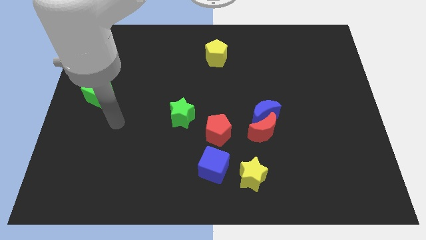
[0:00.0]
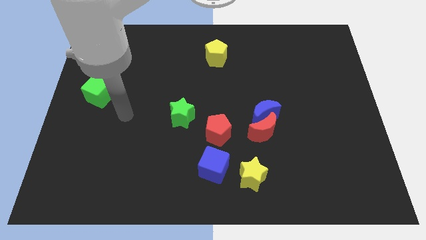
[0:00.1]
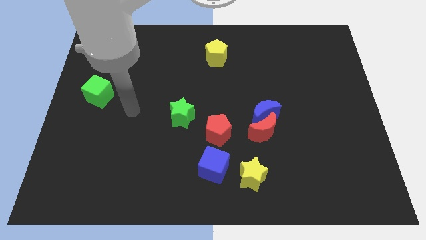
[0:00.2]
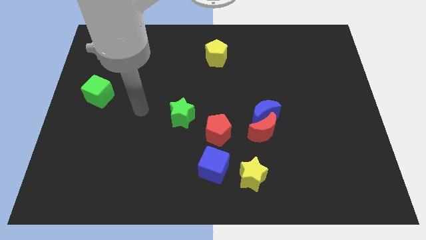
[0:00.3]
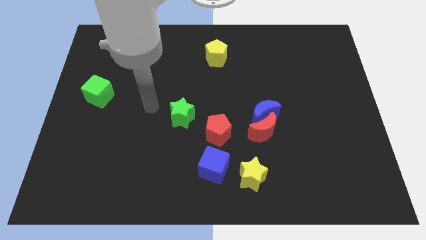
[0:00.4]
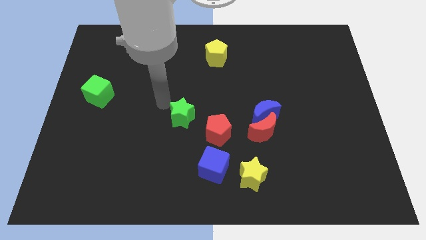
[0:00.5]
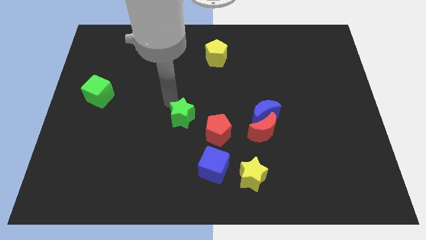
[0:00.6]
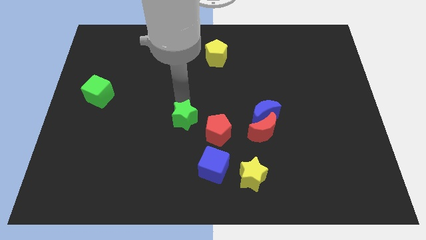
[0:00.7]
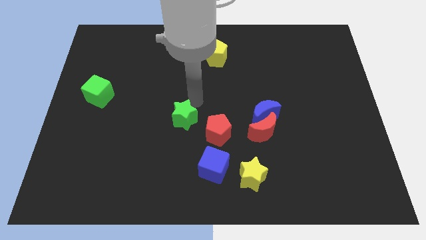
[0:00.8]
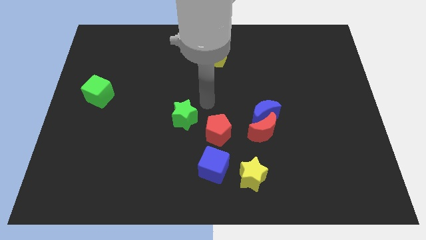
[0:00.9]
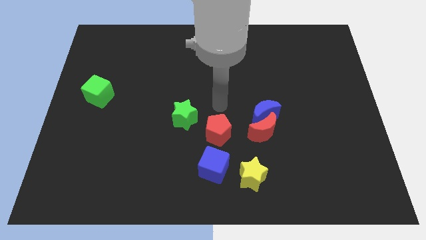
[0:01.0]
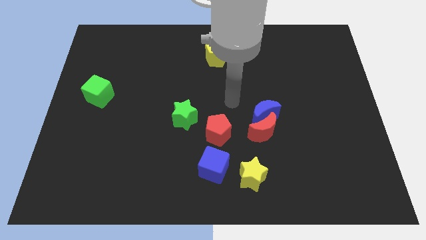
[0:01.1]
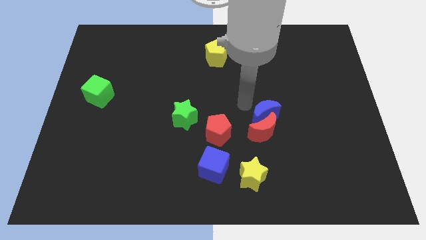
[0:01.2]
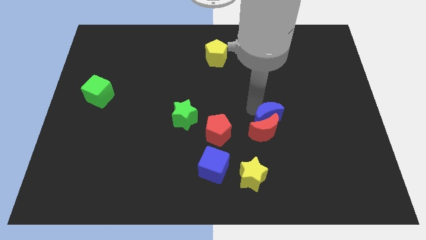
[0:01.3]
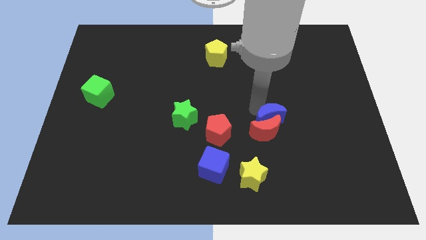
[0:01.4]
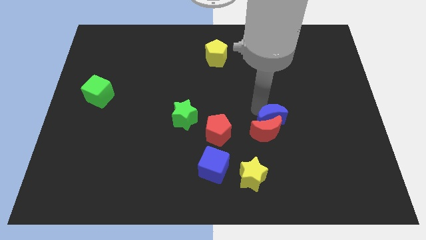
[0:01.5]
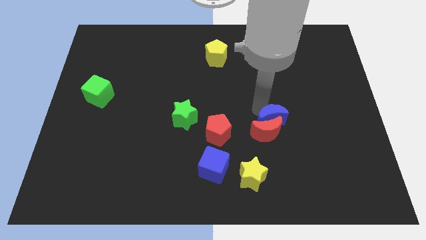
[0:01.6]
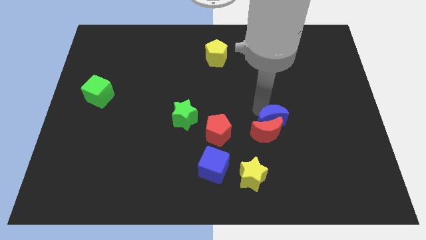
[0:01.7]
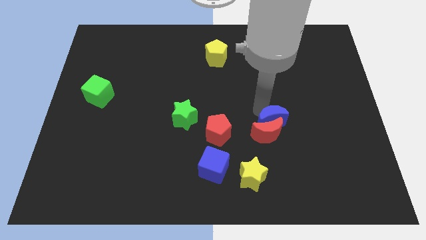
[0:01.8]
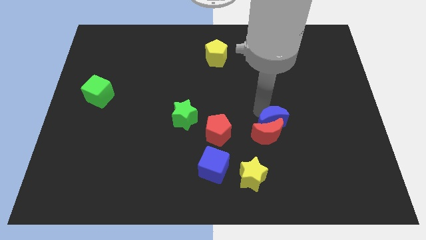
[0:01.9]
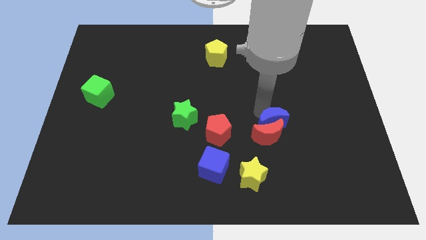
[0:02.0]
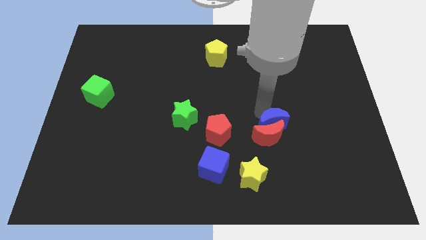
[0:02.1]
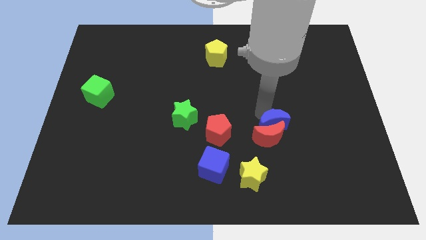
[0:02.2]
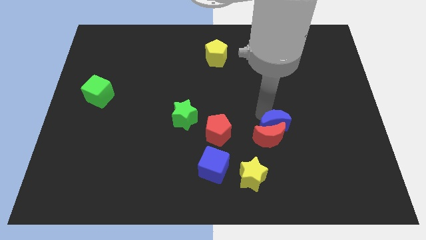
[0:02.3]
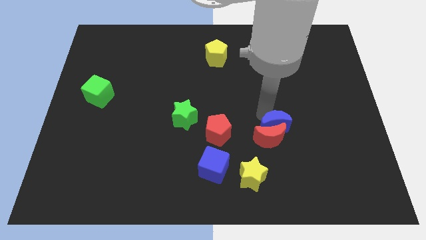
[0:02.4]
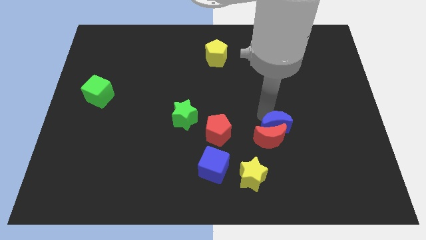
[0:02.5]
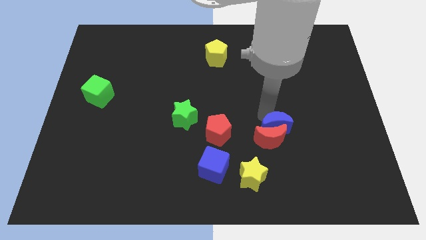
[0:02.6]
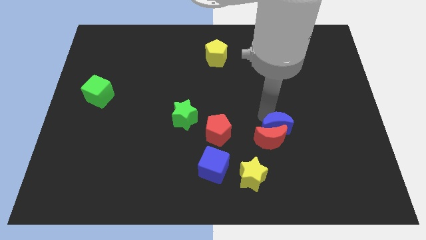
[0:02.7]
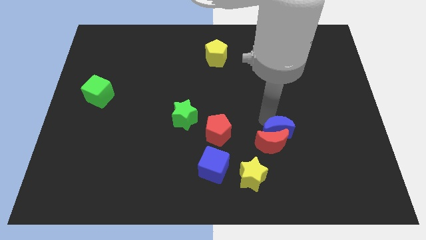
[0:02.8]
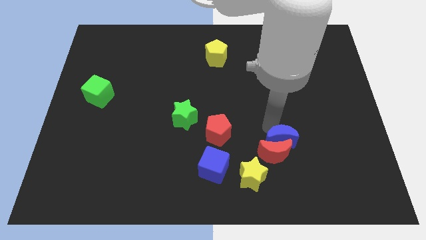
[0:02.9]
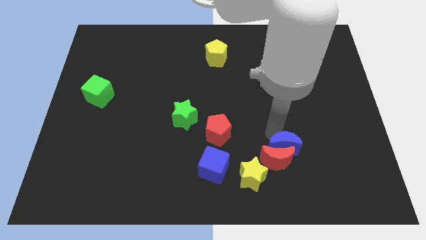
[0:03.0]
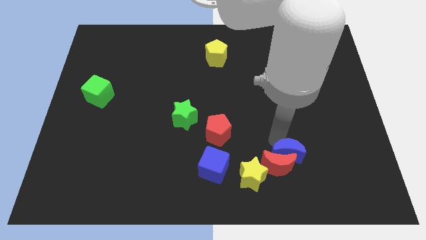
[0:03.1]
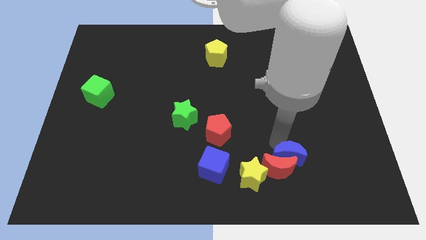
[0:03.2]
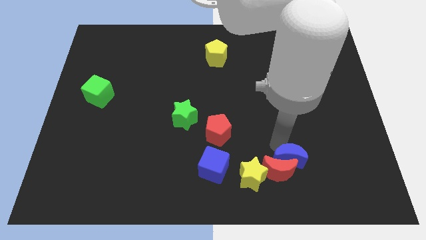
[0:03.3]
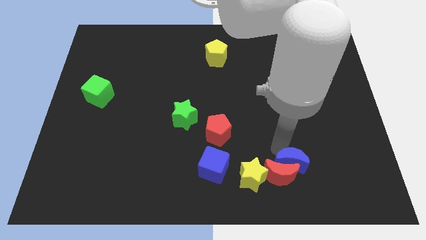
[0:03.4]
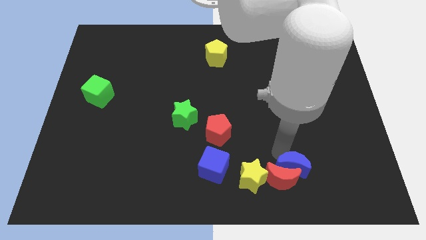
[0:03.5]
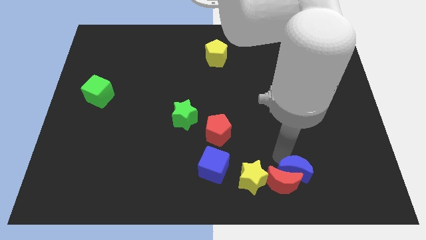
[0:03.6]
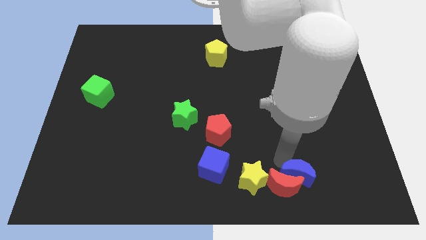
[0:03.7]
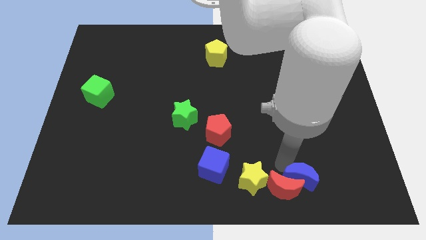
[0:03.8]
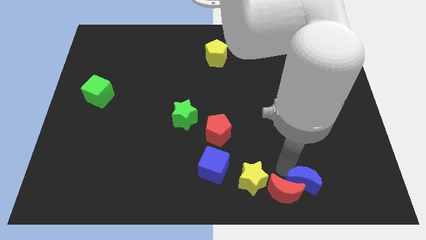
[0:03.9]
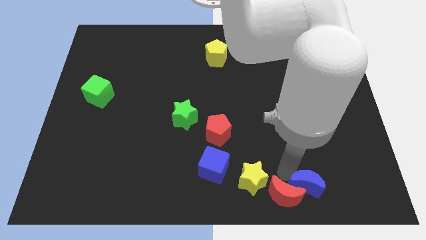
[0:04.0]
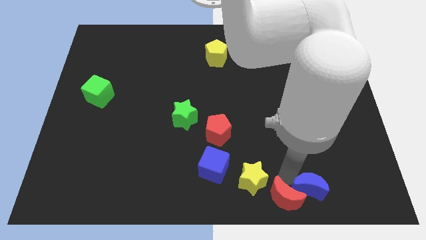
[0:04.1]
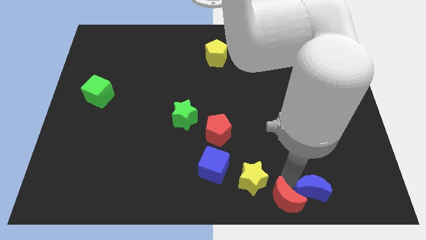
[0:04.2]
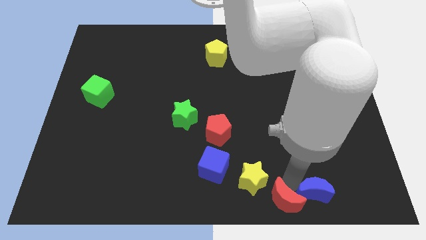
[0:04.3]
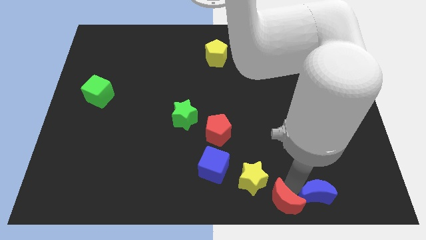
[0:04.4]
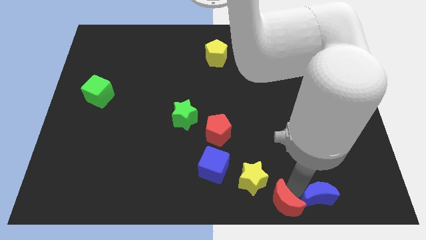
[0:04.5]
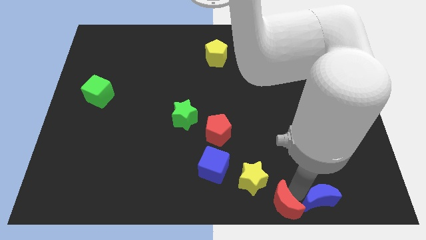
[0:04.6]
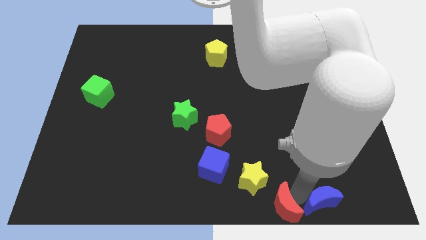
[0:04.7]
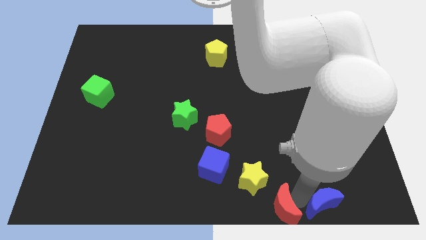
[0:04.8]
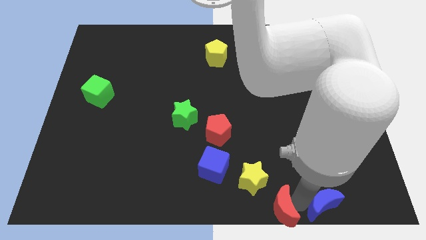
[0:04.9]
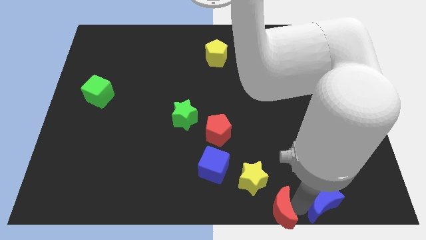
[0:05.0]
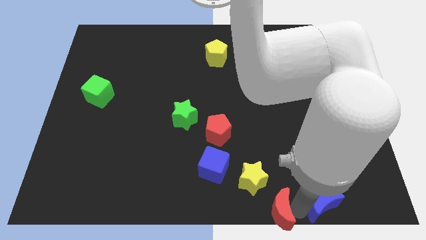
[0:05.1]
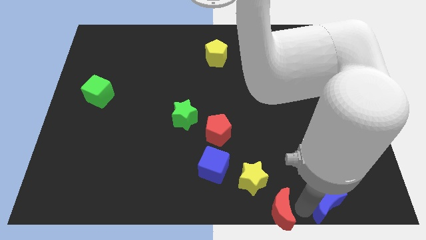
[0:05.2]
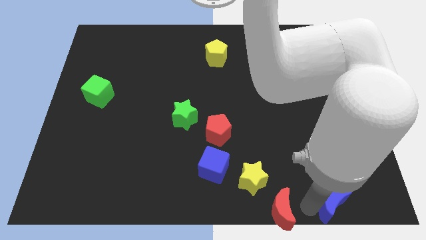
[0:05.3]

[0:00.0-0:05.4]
move the red moon away from the blue moon

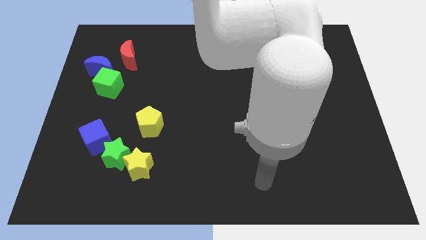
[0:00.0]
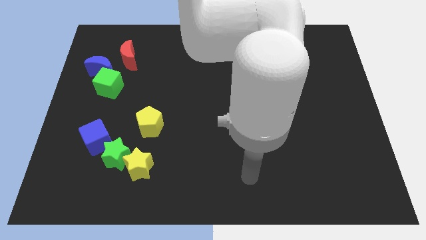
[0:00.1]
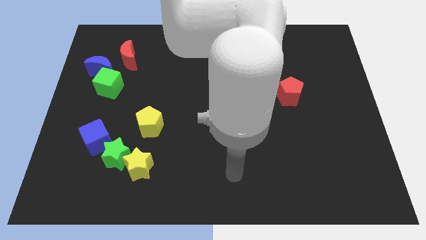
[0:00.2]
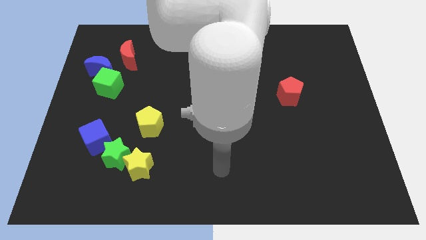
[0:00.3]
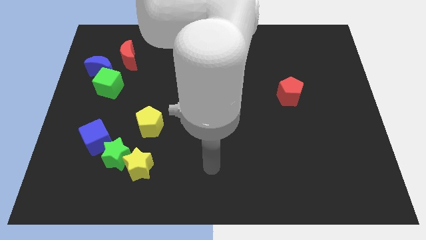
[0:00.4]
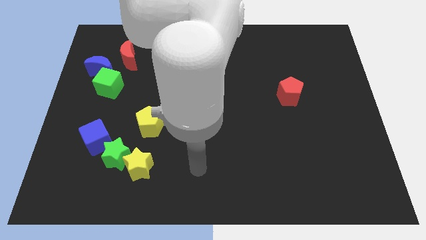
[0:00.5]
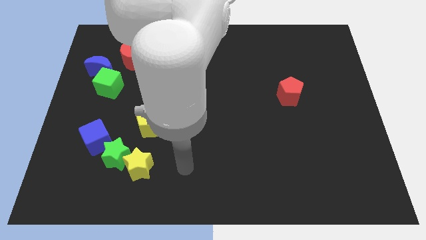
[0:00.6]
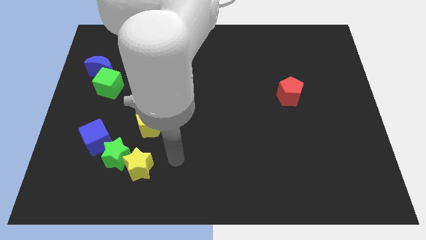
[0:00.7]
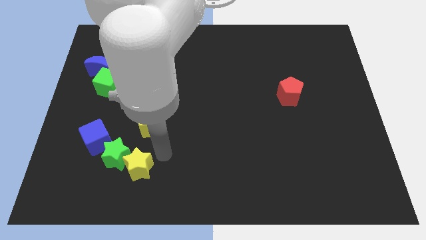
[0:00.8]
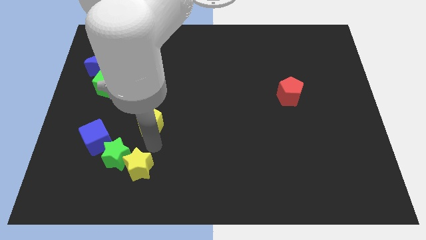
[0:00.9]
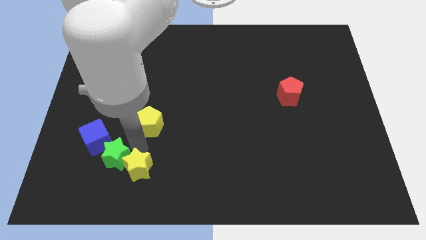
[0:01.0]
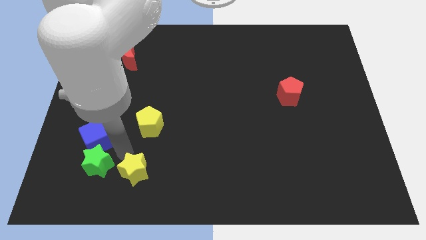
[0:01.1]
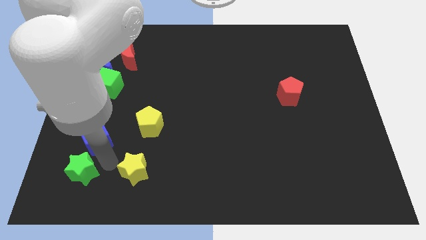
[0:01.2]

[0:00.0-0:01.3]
pull the yellow star apart from the green star

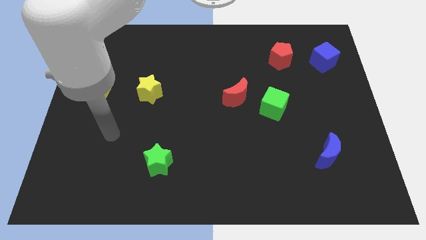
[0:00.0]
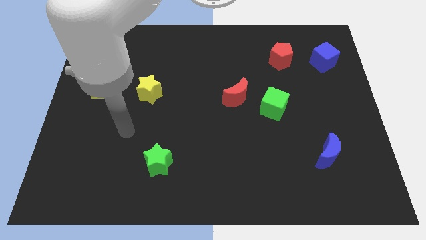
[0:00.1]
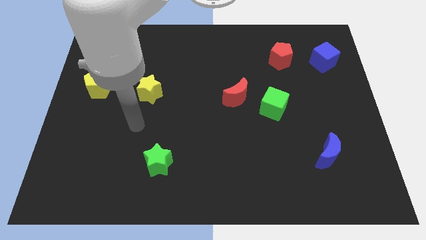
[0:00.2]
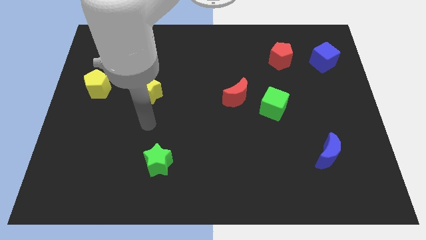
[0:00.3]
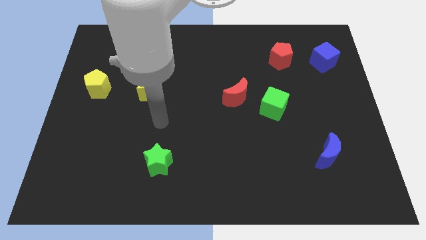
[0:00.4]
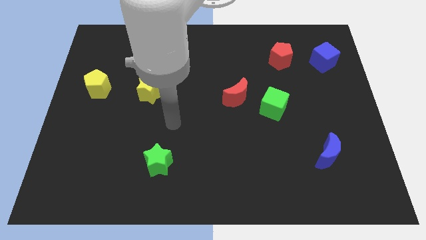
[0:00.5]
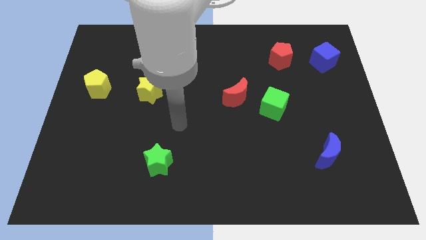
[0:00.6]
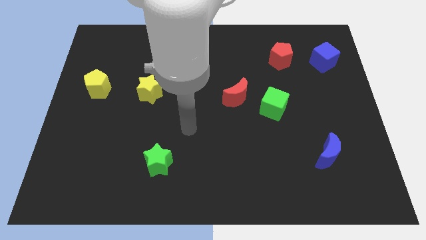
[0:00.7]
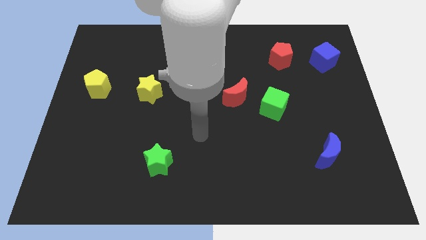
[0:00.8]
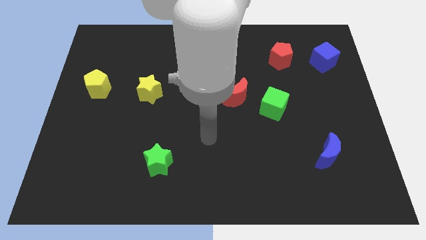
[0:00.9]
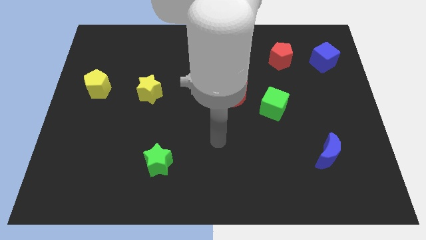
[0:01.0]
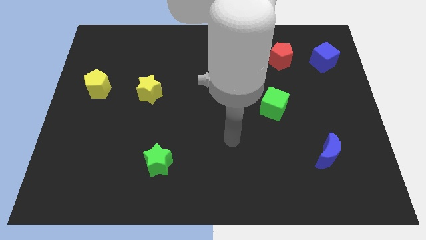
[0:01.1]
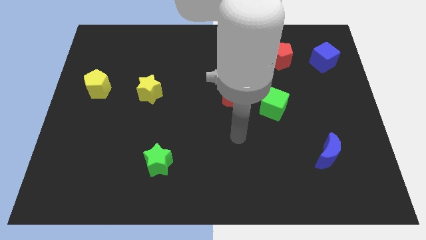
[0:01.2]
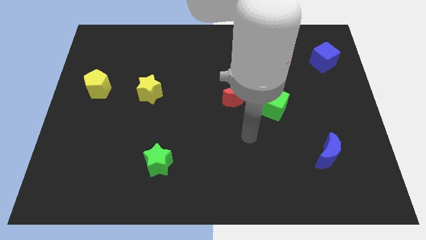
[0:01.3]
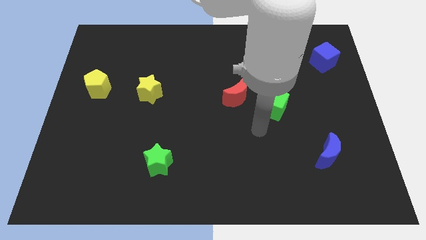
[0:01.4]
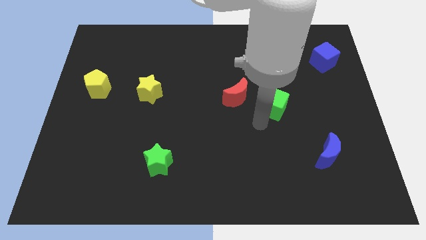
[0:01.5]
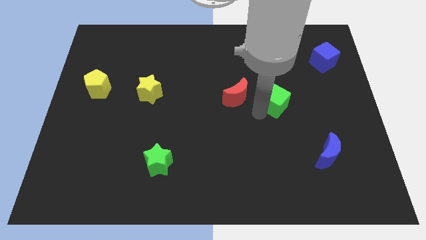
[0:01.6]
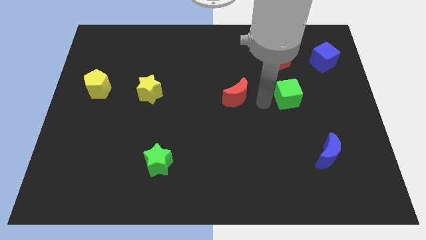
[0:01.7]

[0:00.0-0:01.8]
separate the red moon from the green cube

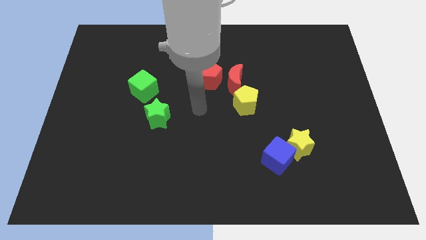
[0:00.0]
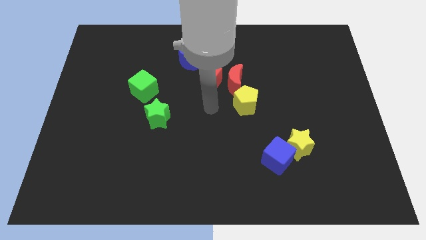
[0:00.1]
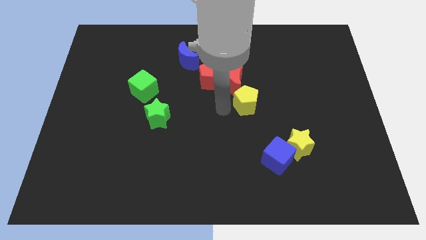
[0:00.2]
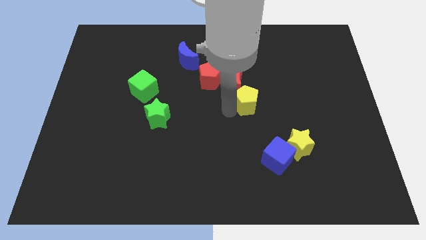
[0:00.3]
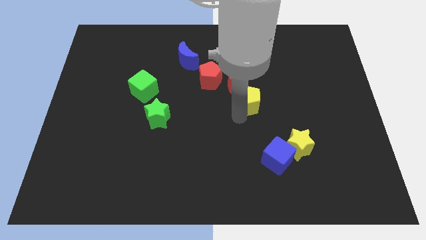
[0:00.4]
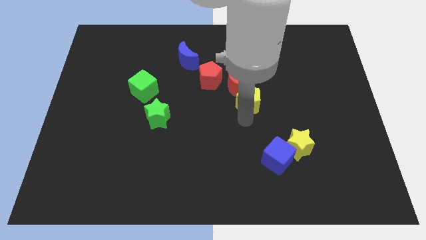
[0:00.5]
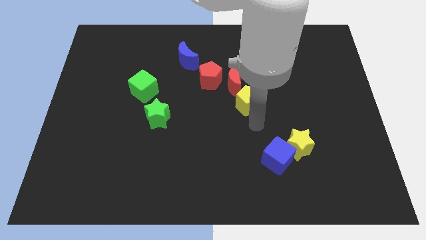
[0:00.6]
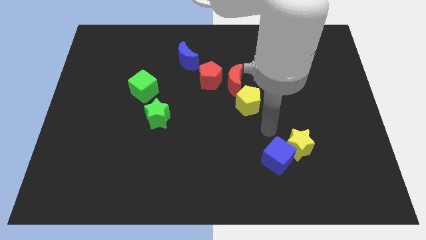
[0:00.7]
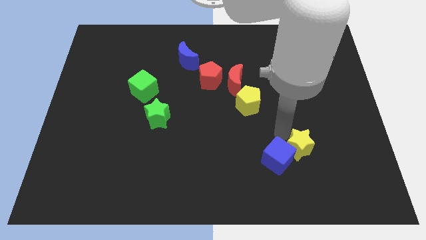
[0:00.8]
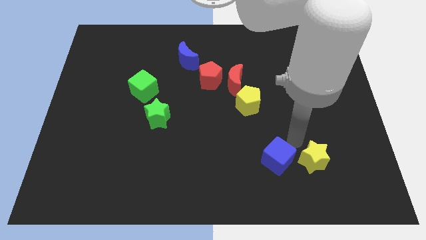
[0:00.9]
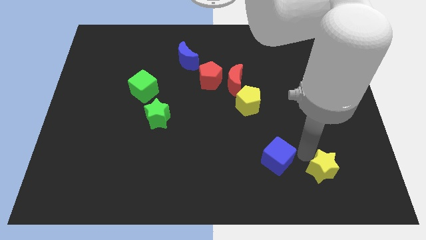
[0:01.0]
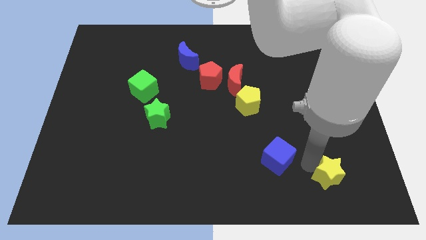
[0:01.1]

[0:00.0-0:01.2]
pull the blue cube apart from the yellow star
